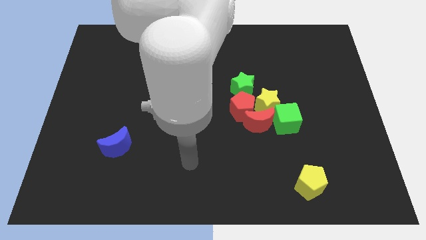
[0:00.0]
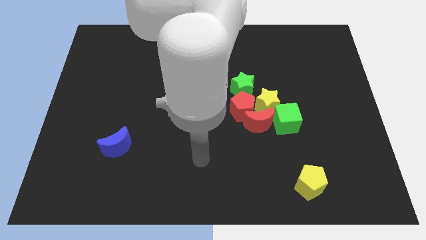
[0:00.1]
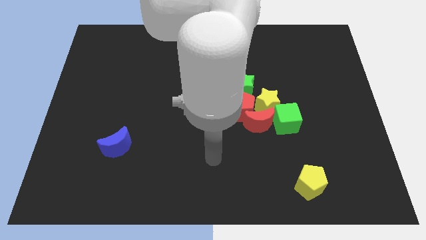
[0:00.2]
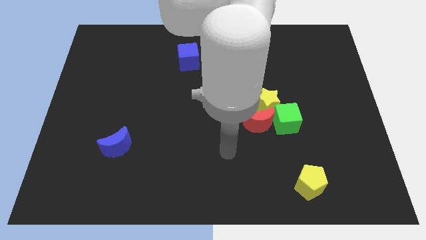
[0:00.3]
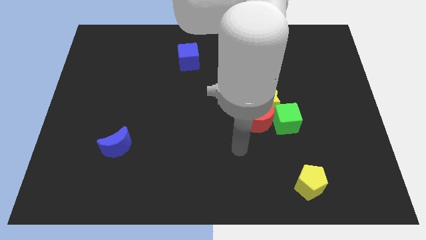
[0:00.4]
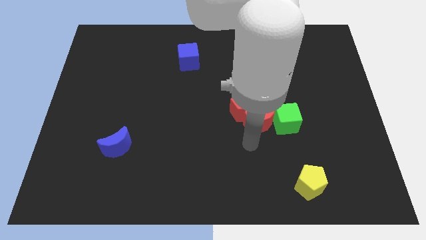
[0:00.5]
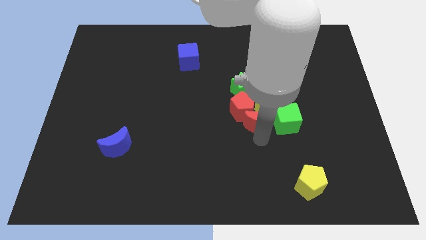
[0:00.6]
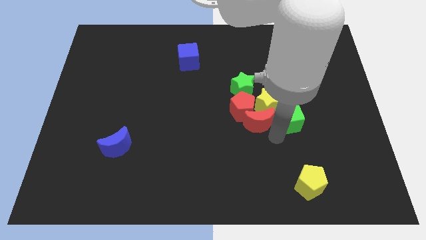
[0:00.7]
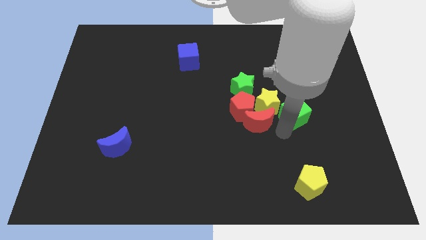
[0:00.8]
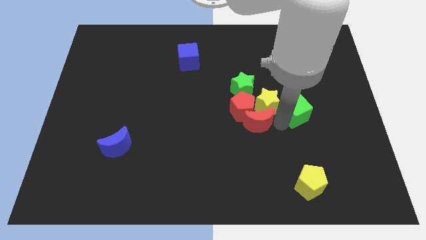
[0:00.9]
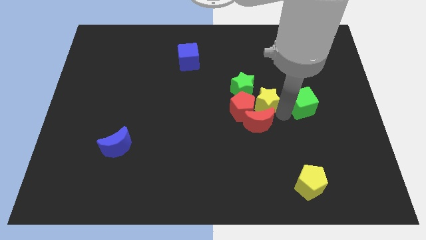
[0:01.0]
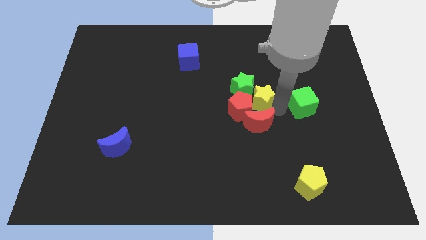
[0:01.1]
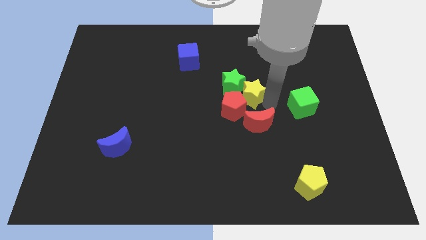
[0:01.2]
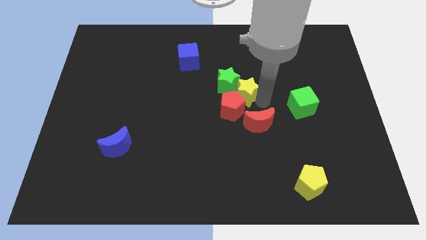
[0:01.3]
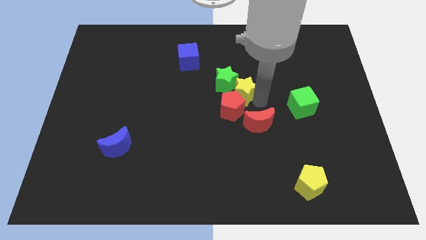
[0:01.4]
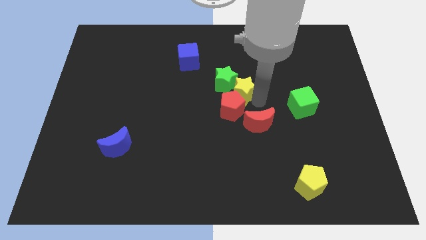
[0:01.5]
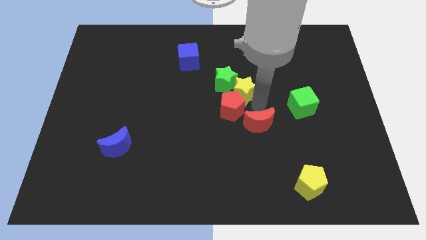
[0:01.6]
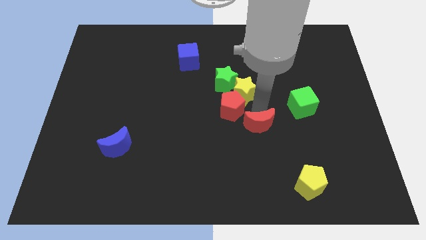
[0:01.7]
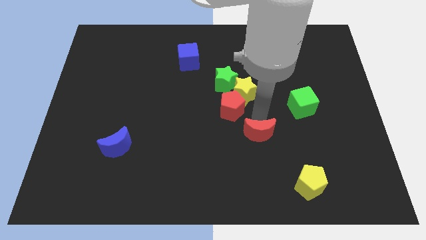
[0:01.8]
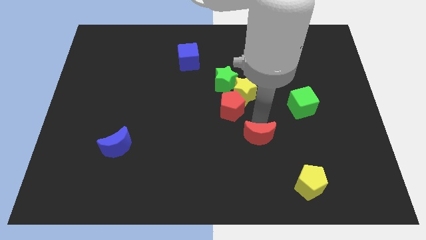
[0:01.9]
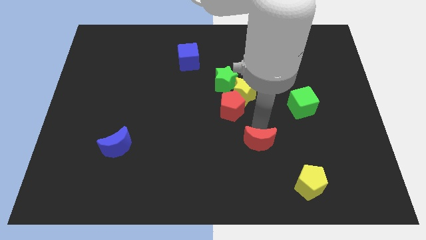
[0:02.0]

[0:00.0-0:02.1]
separate the red moon from the red pentagon, yellow star, and green cube

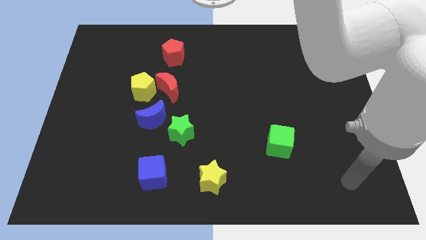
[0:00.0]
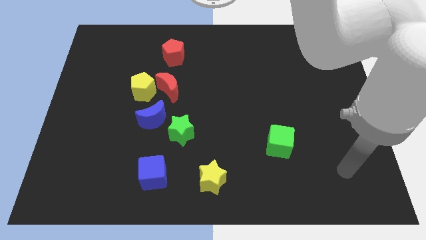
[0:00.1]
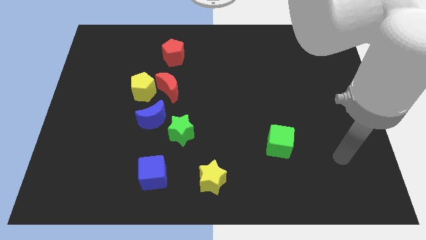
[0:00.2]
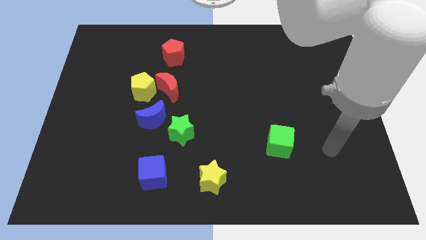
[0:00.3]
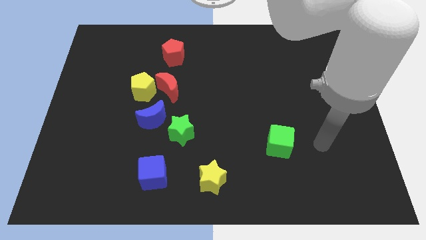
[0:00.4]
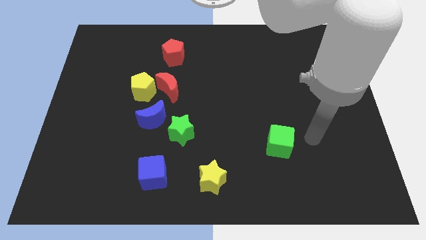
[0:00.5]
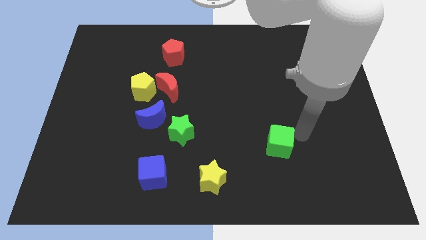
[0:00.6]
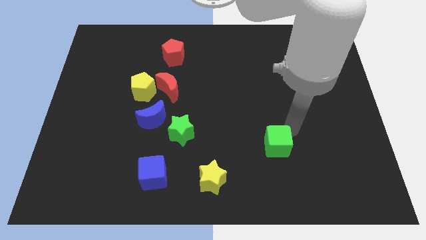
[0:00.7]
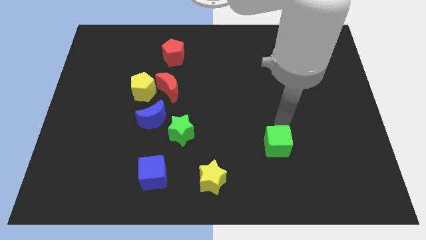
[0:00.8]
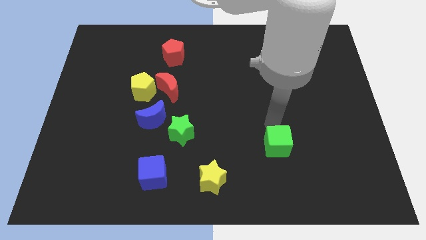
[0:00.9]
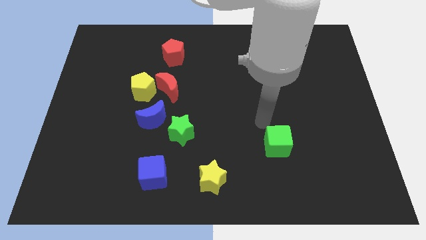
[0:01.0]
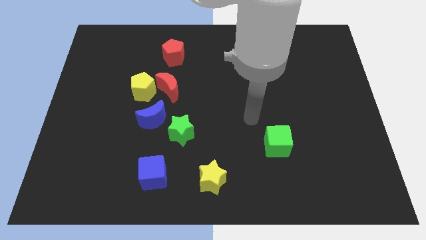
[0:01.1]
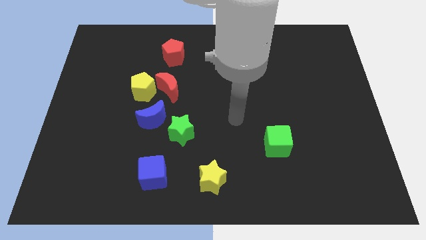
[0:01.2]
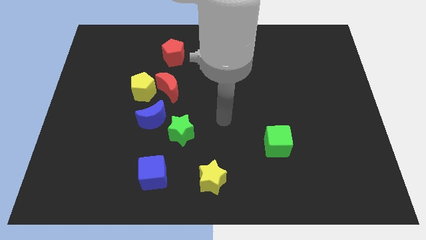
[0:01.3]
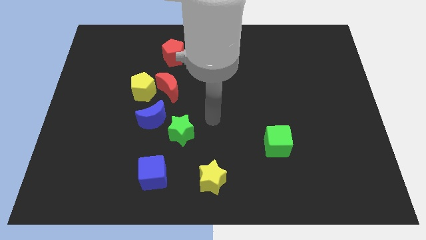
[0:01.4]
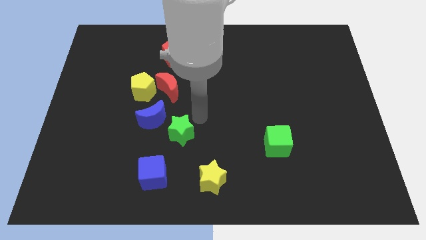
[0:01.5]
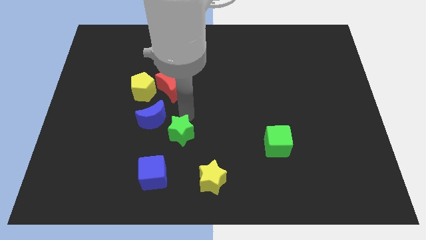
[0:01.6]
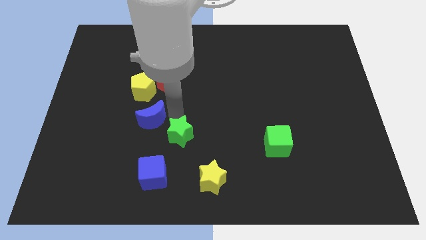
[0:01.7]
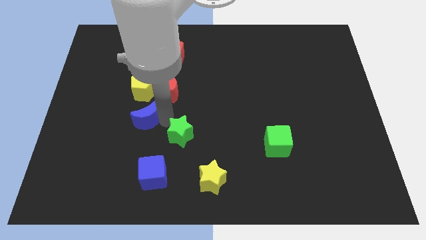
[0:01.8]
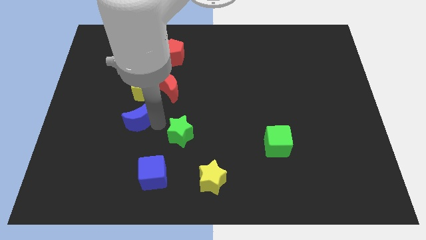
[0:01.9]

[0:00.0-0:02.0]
separate the green star from the blue moon

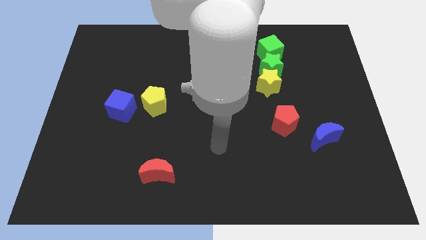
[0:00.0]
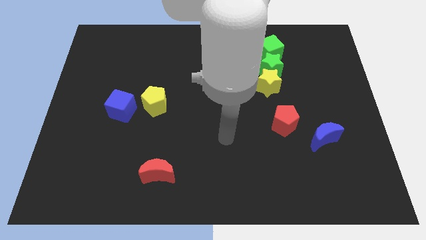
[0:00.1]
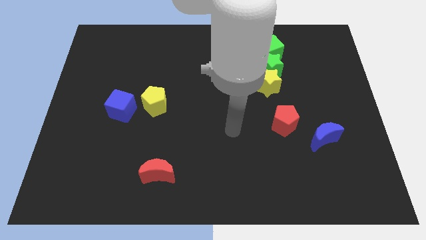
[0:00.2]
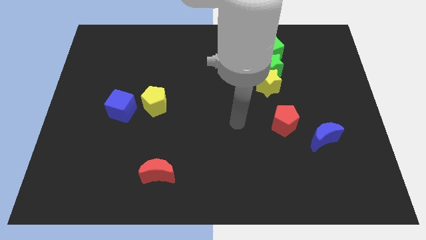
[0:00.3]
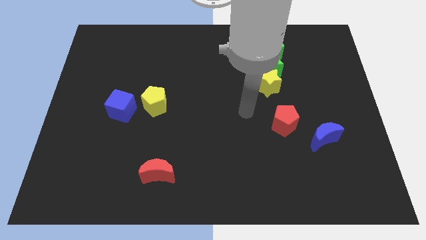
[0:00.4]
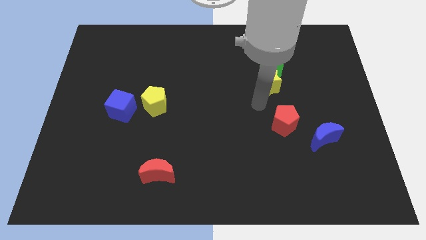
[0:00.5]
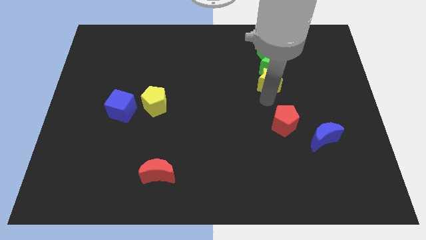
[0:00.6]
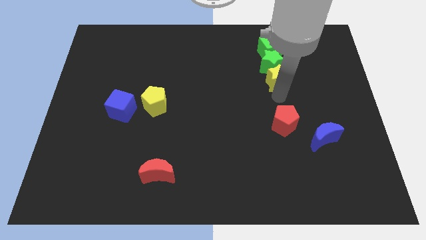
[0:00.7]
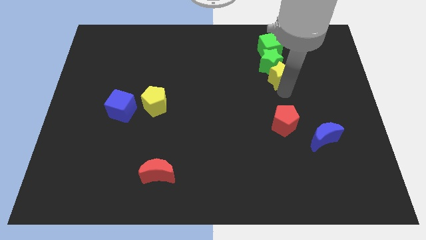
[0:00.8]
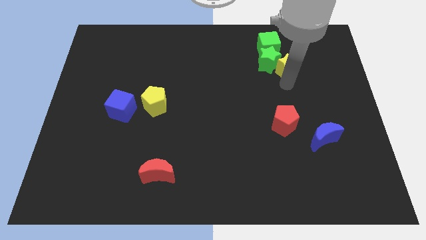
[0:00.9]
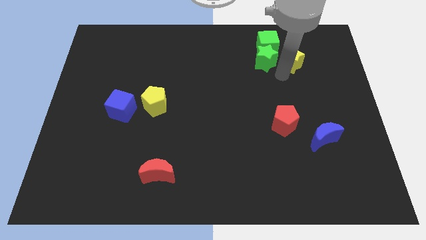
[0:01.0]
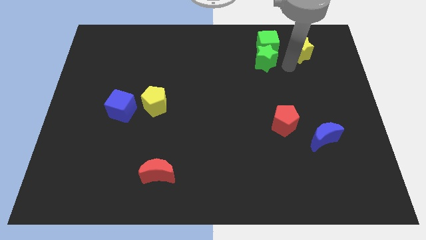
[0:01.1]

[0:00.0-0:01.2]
move the yellow star away from the green star

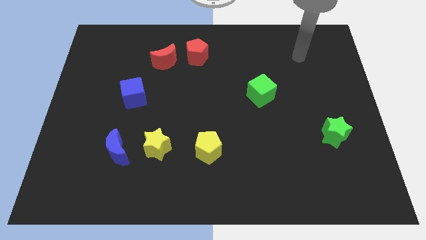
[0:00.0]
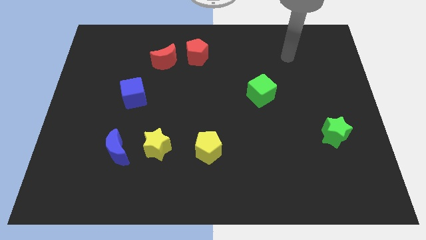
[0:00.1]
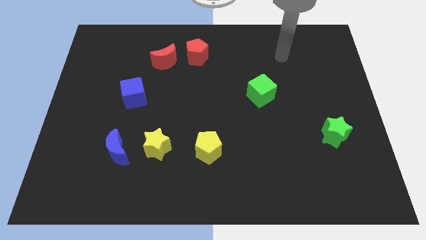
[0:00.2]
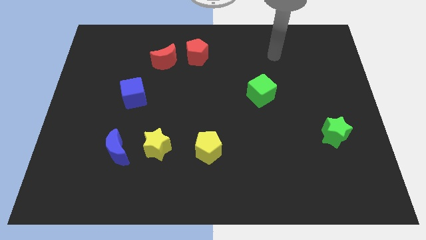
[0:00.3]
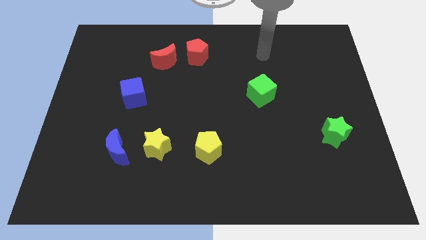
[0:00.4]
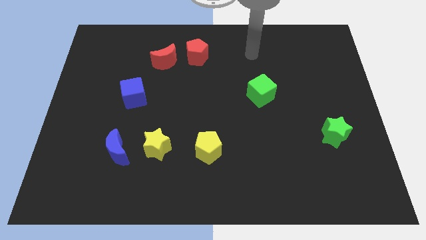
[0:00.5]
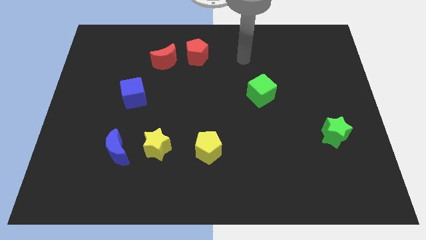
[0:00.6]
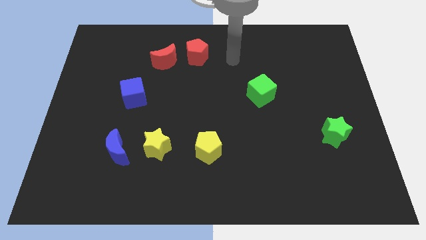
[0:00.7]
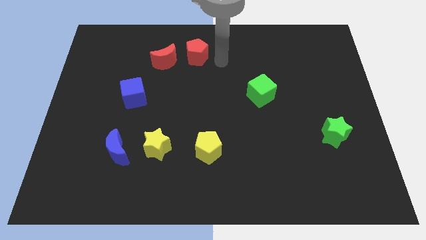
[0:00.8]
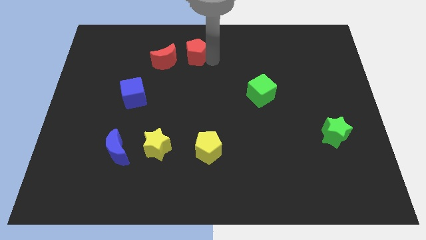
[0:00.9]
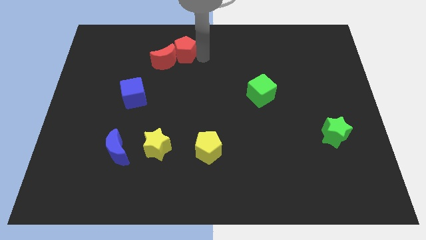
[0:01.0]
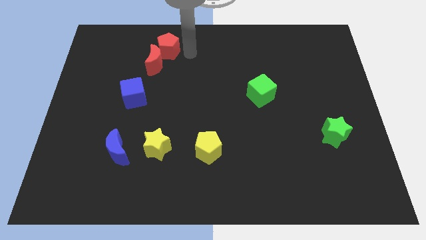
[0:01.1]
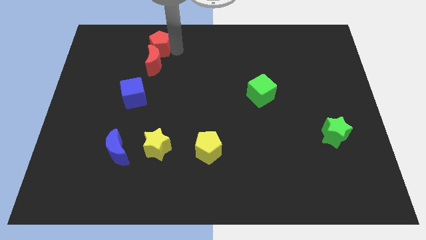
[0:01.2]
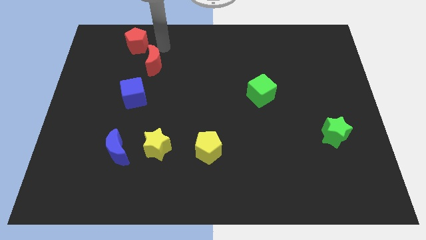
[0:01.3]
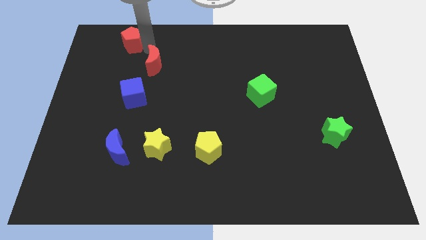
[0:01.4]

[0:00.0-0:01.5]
separate the red moon from the red pentagon

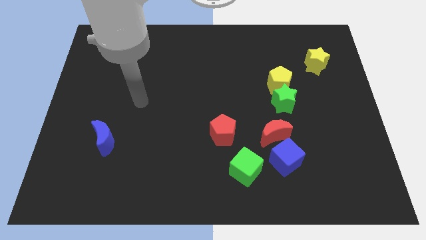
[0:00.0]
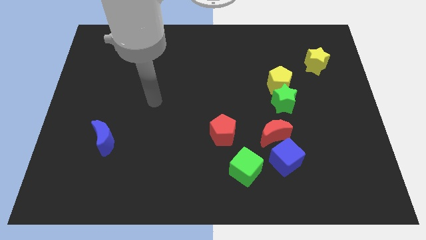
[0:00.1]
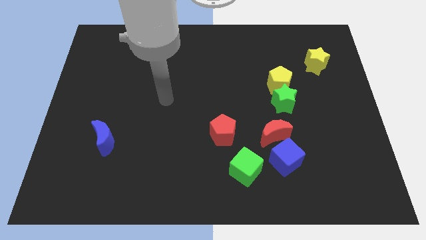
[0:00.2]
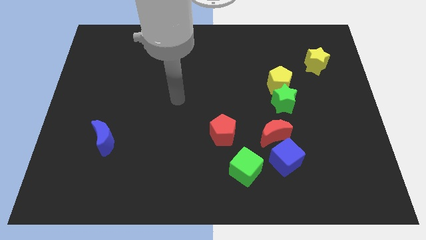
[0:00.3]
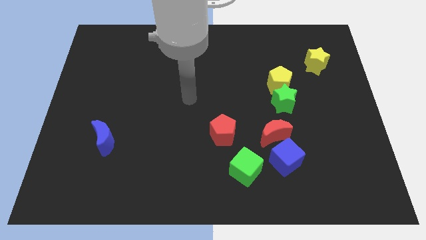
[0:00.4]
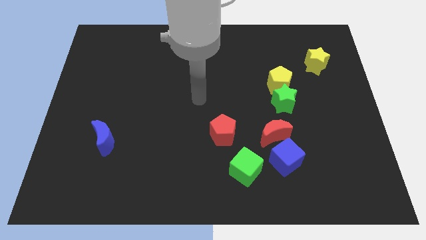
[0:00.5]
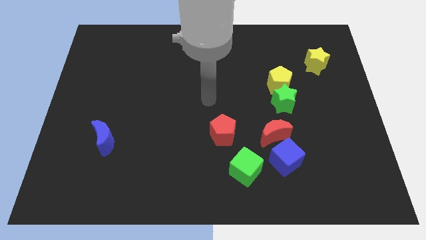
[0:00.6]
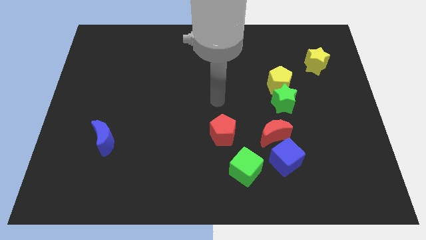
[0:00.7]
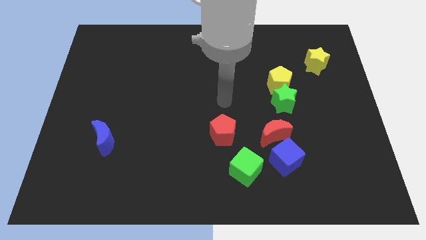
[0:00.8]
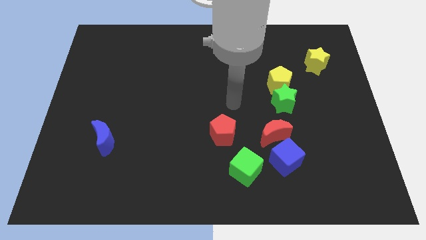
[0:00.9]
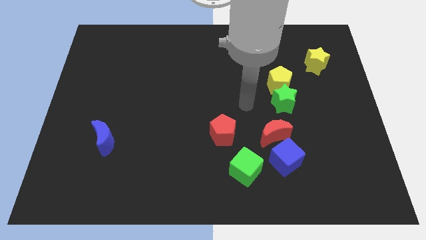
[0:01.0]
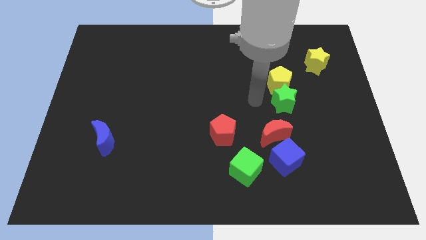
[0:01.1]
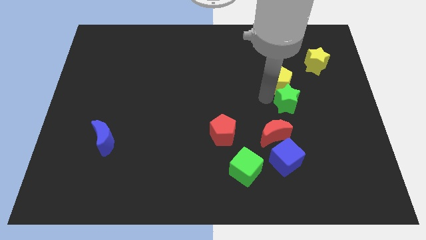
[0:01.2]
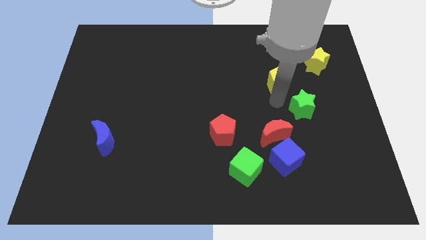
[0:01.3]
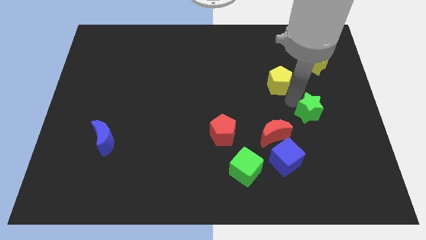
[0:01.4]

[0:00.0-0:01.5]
separate the yellow pentagon from the green star

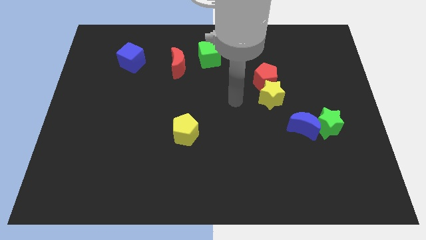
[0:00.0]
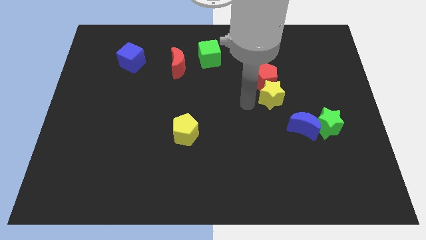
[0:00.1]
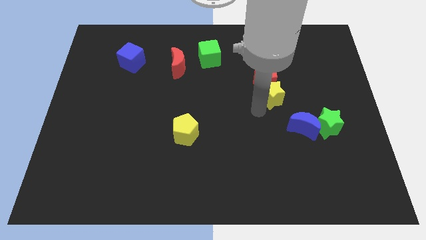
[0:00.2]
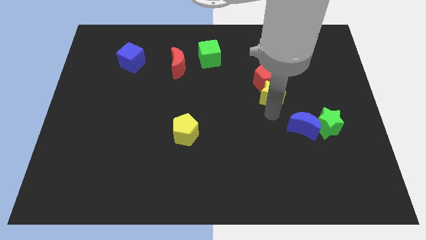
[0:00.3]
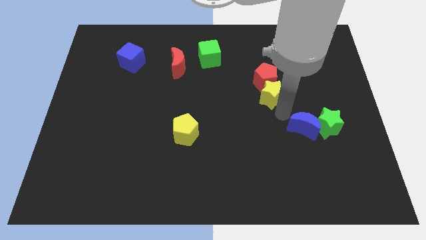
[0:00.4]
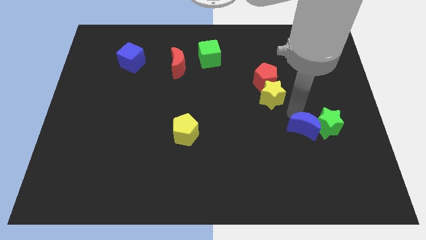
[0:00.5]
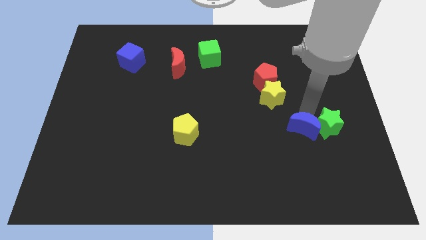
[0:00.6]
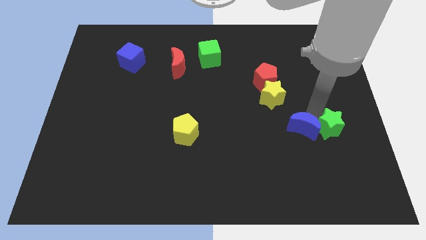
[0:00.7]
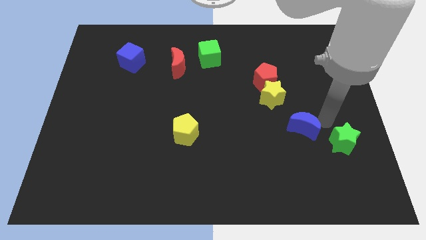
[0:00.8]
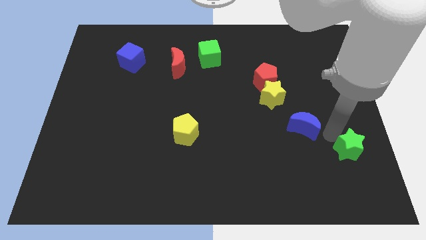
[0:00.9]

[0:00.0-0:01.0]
separate the blue moon from the green star
